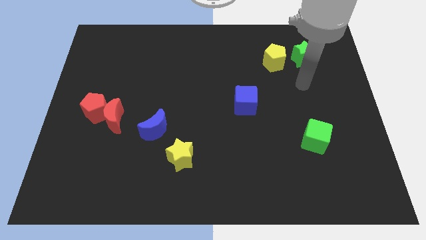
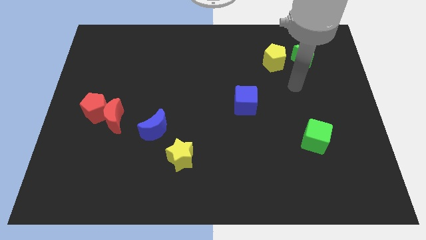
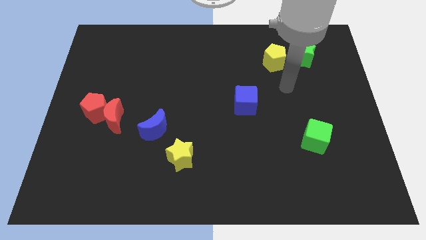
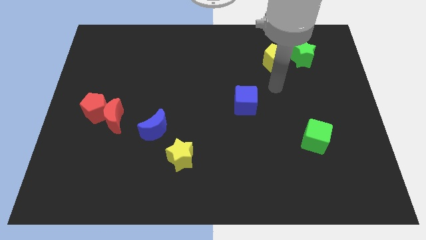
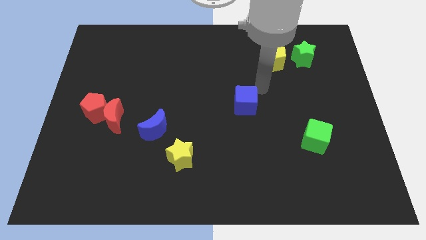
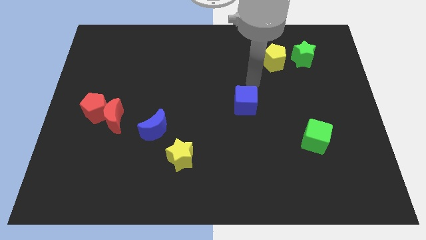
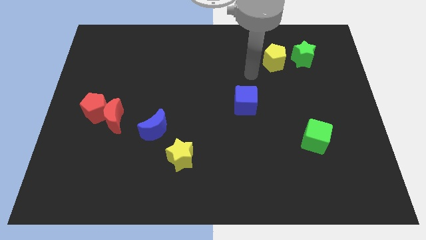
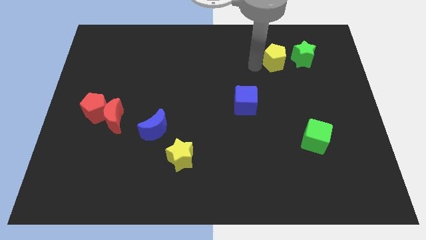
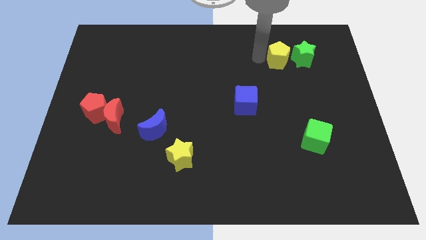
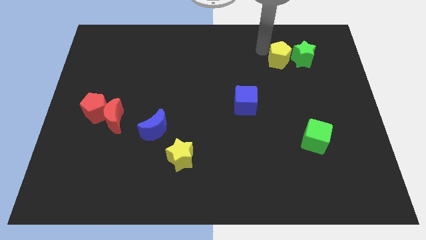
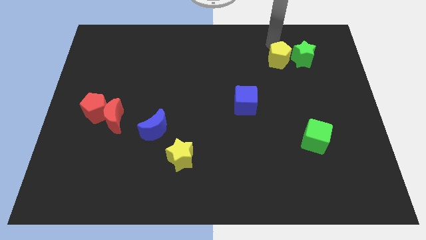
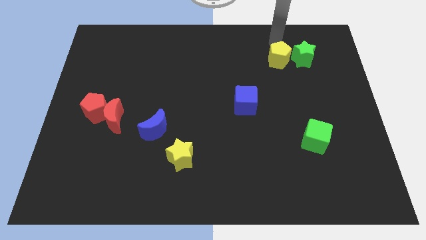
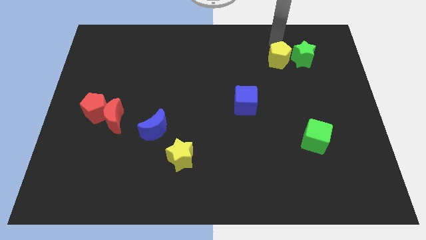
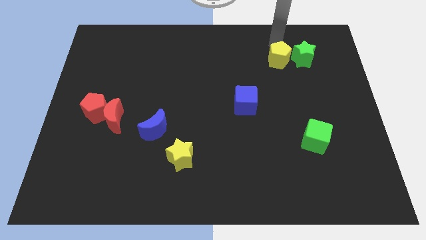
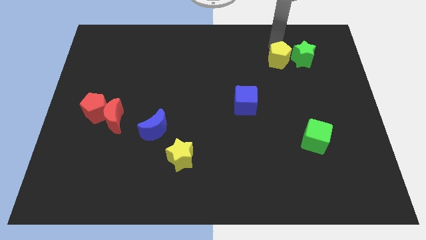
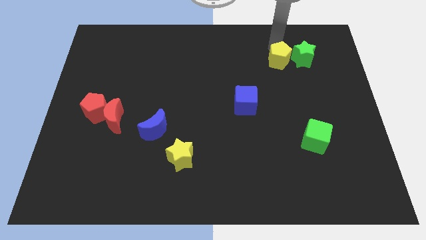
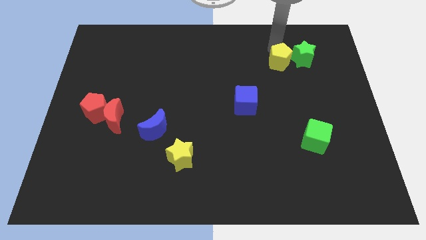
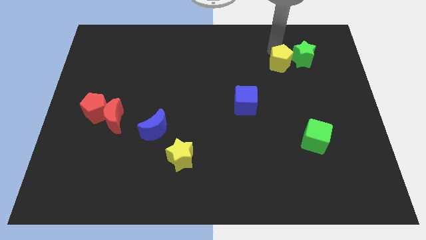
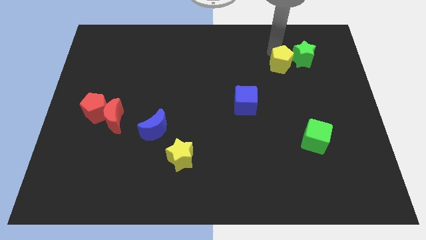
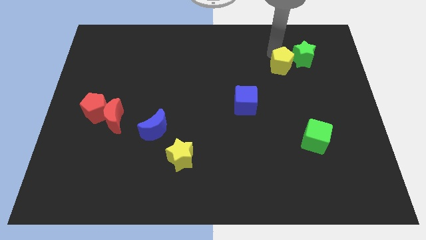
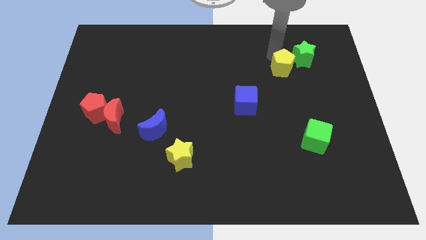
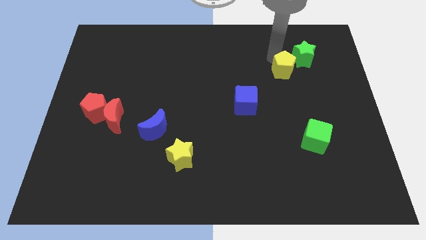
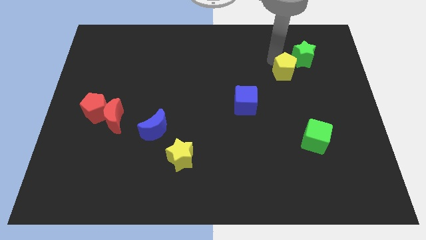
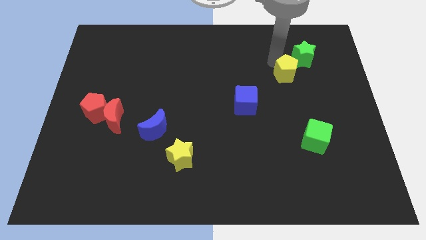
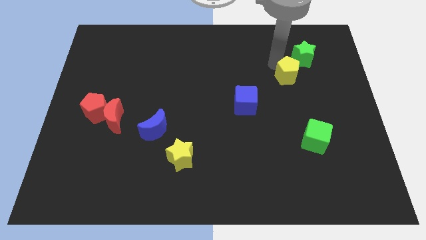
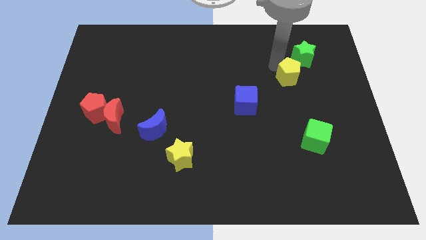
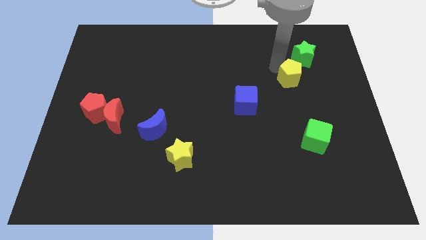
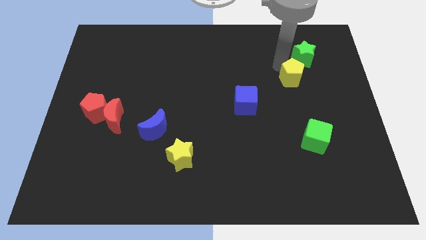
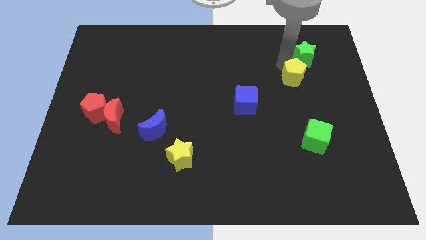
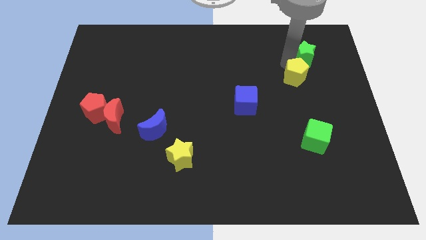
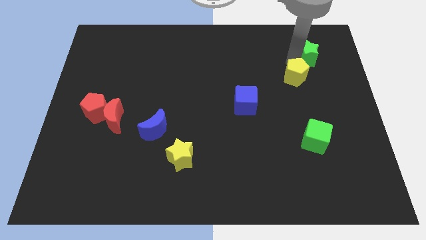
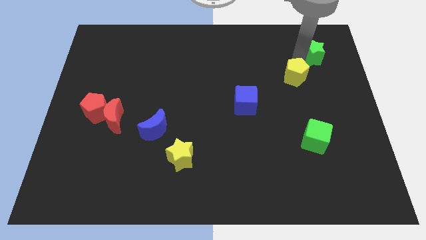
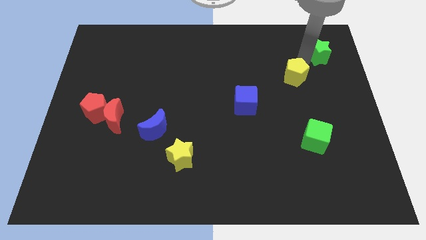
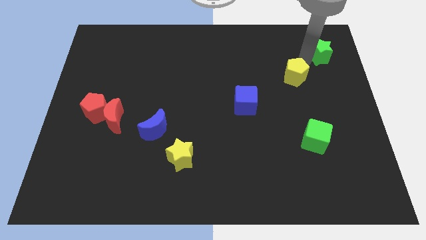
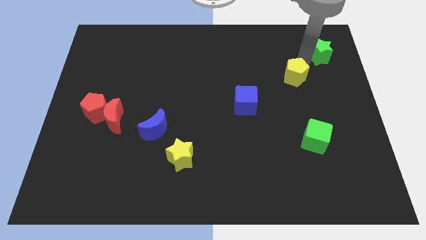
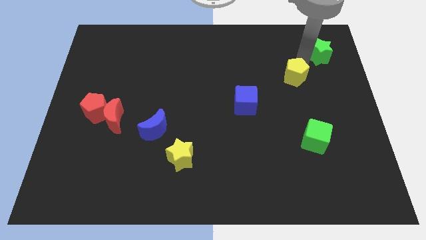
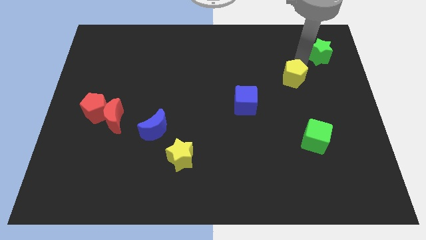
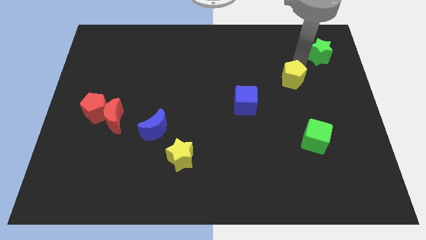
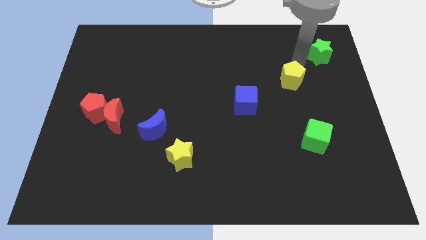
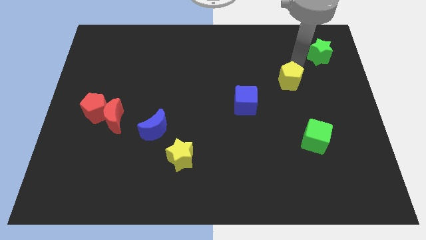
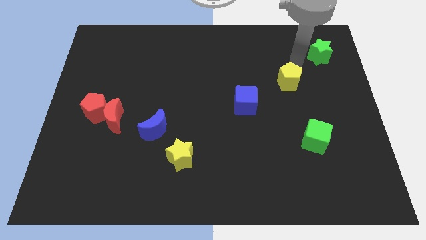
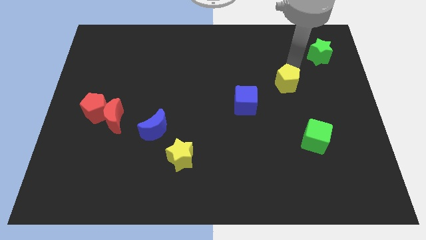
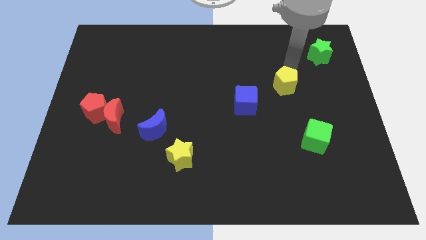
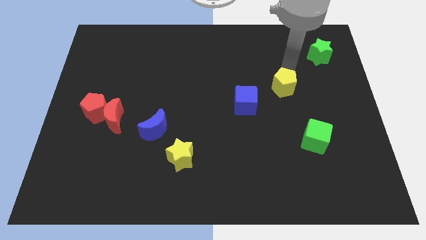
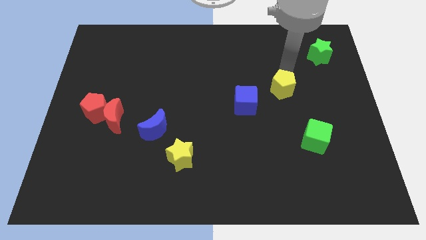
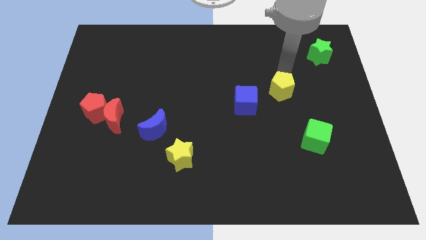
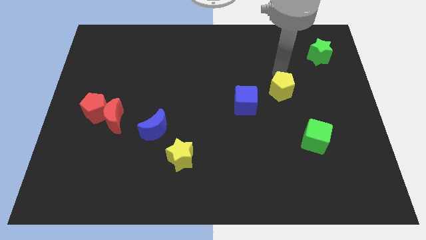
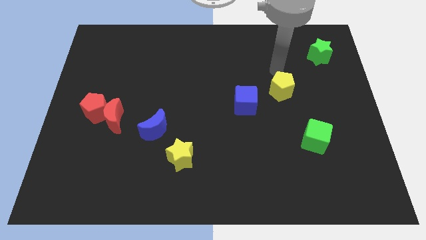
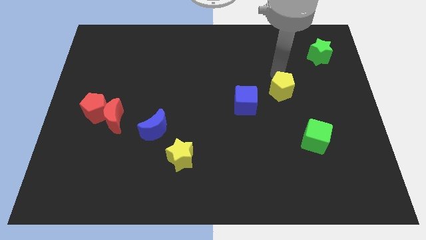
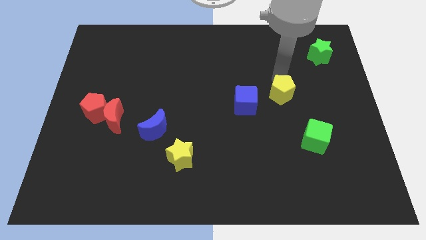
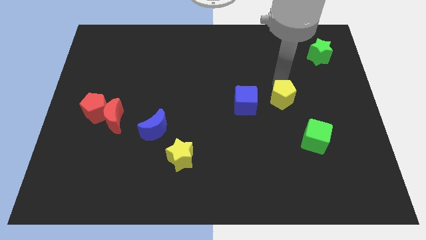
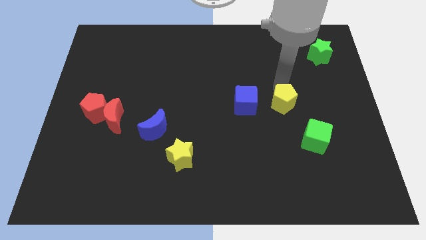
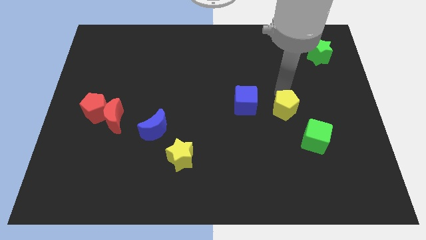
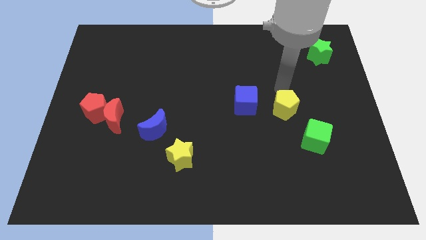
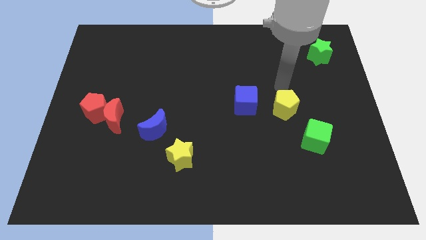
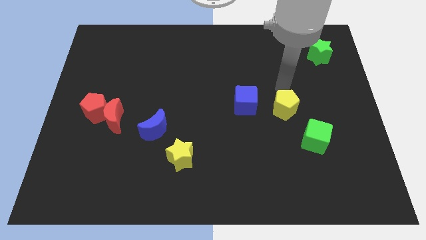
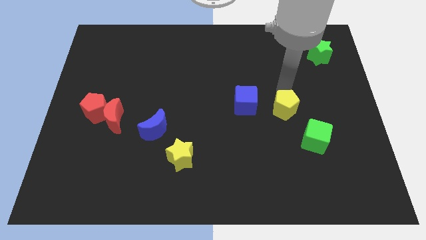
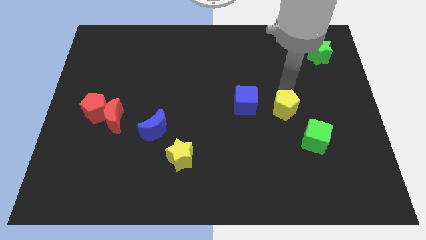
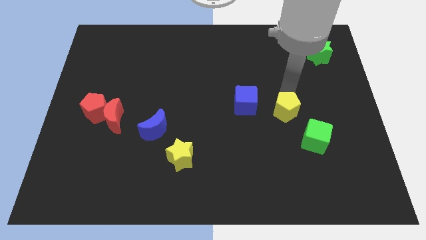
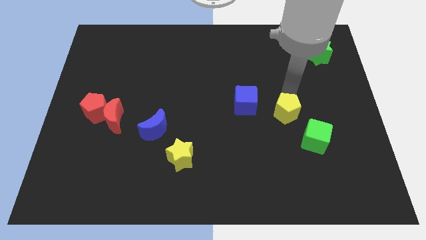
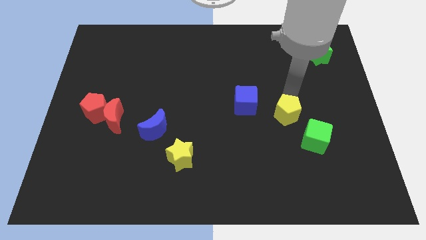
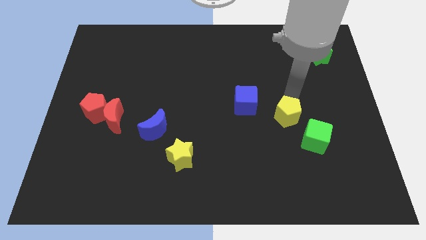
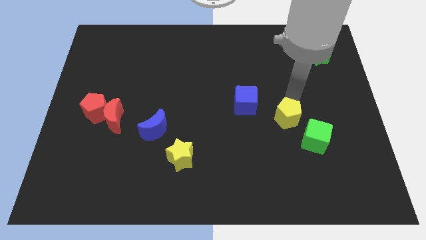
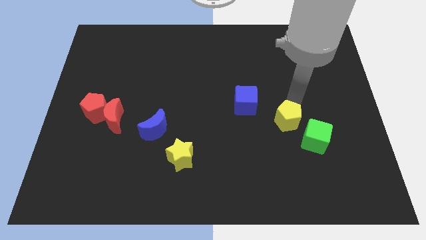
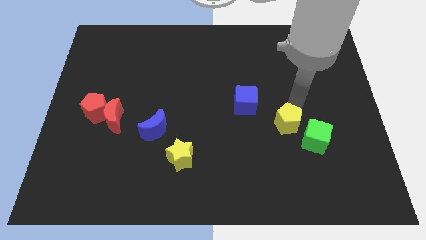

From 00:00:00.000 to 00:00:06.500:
push the yellow pentagon downwards

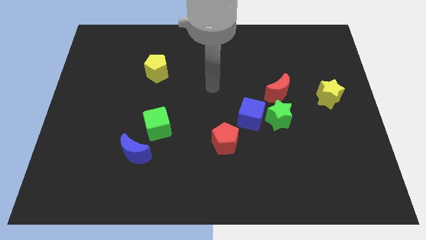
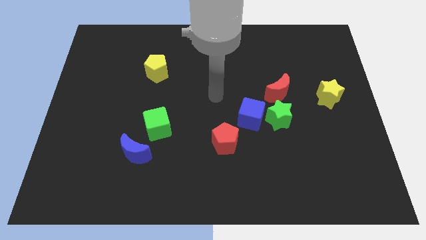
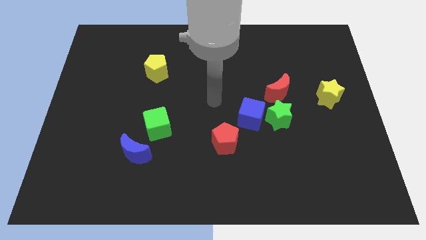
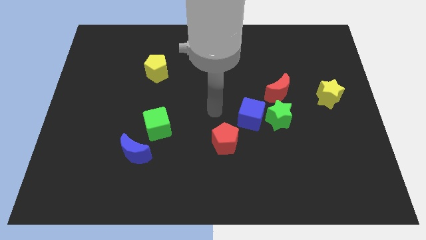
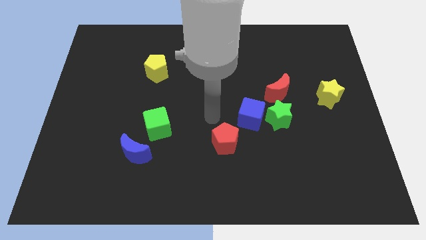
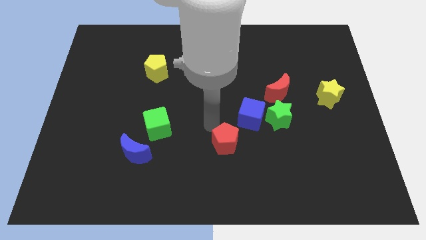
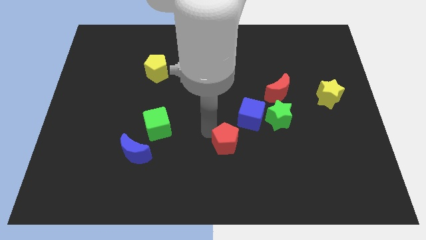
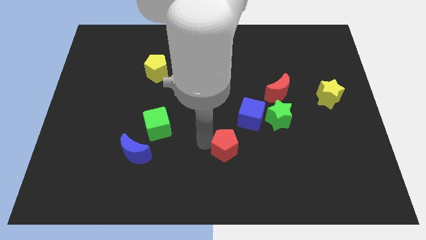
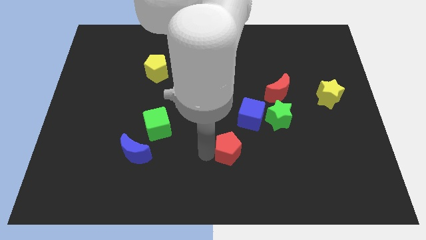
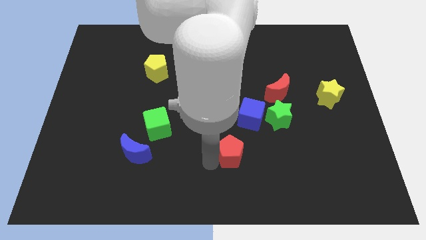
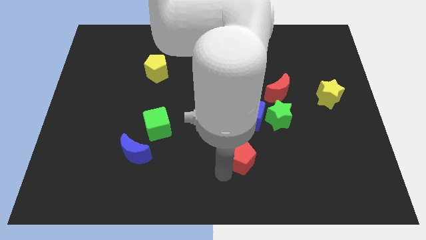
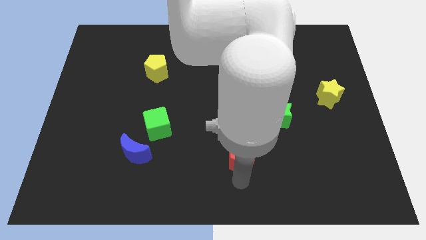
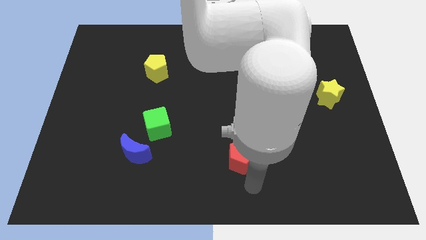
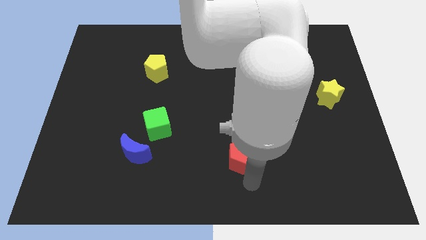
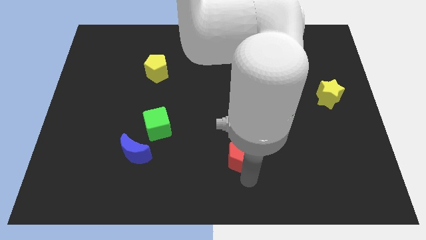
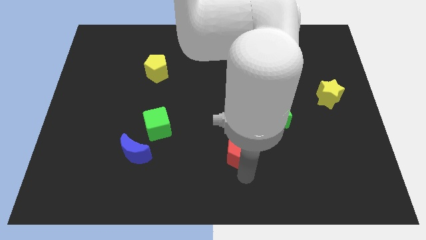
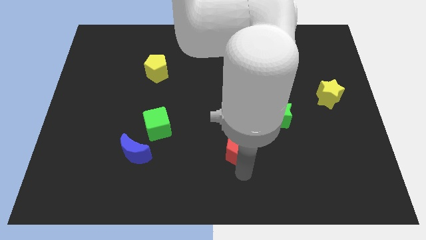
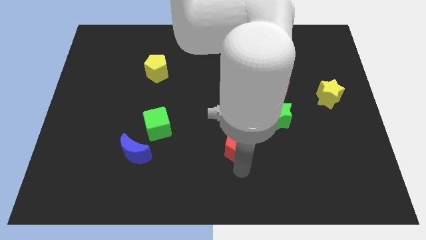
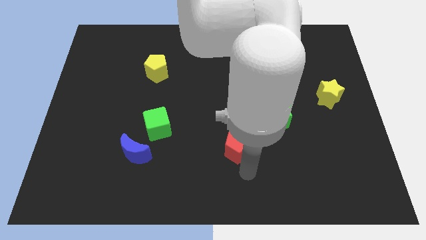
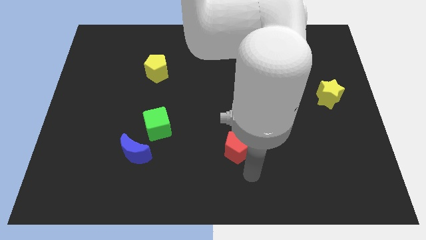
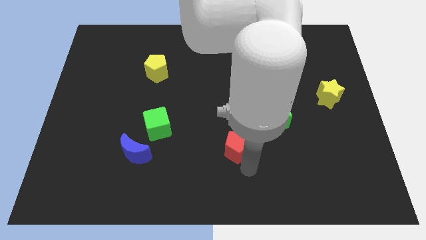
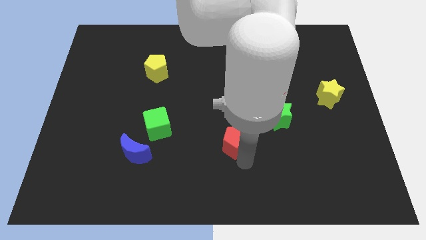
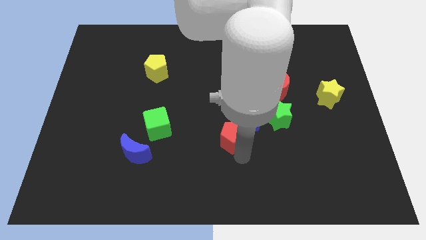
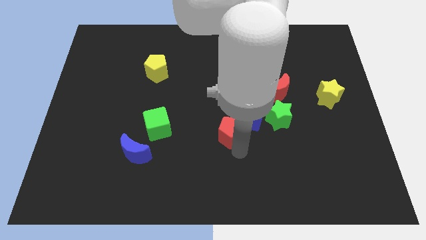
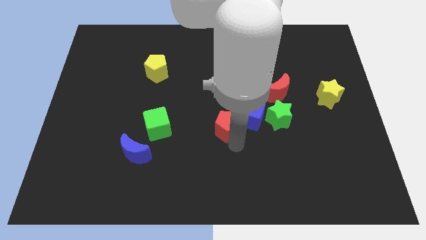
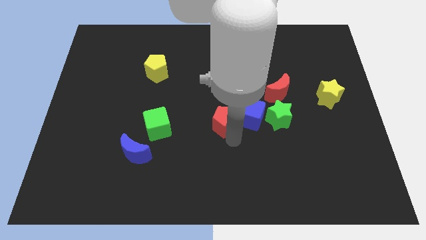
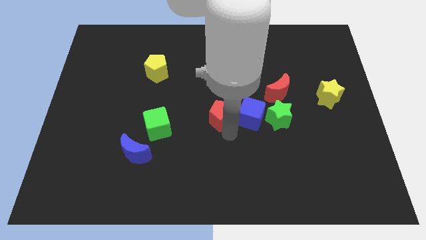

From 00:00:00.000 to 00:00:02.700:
slide the red pentagon a little bit up
